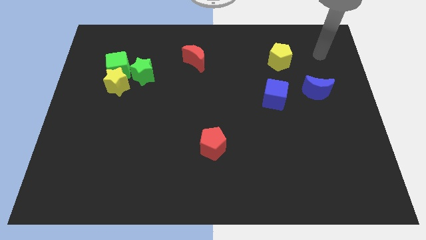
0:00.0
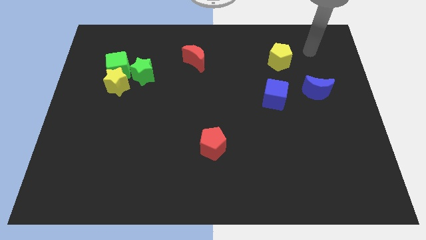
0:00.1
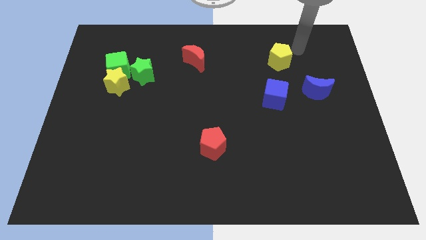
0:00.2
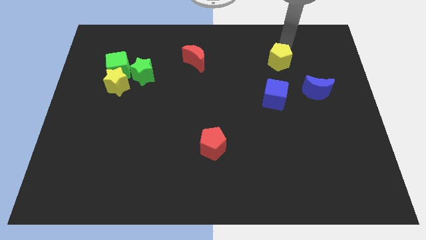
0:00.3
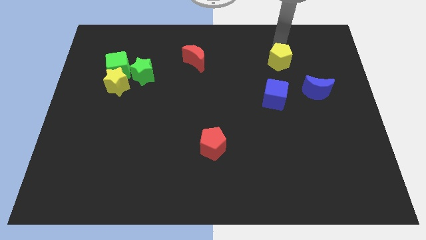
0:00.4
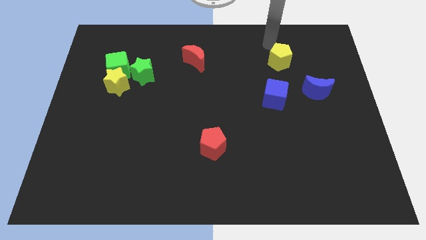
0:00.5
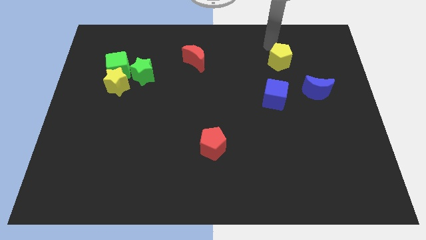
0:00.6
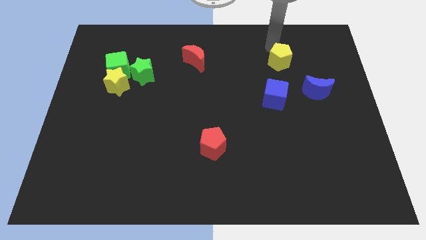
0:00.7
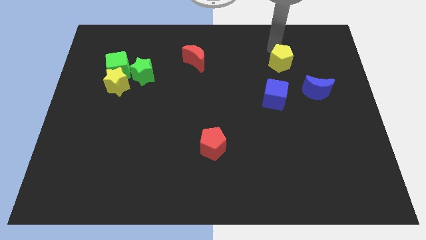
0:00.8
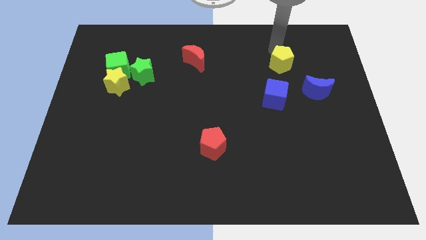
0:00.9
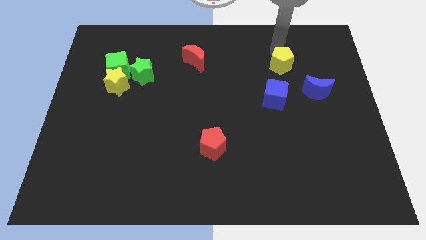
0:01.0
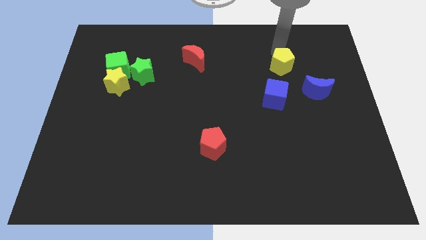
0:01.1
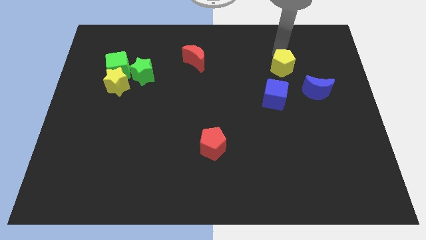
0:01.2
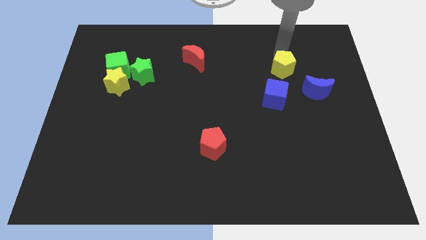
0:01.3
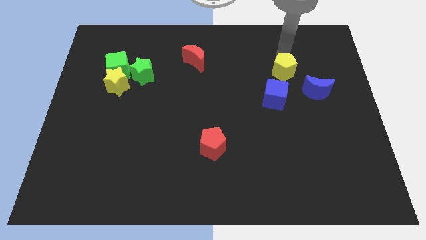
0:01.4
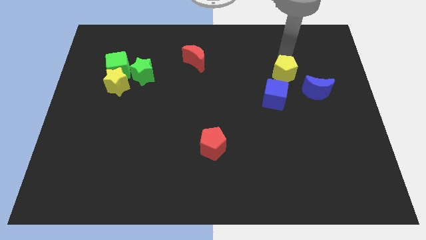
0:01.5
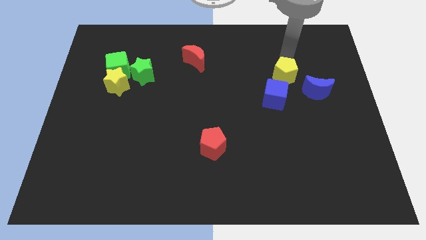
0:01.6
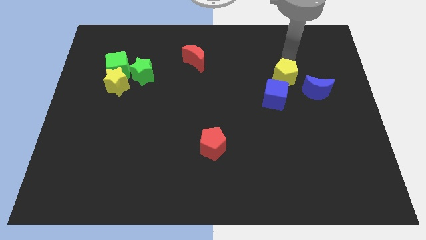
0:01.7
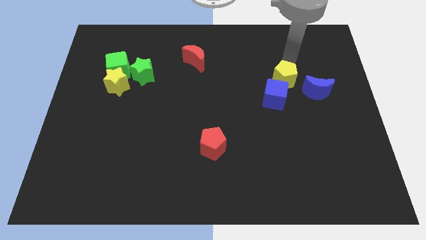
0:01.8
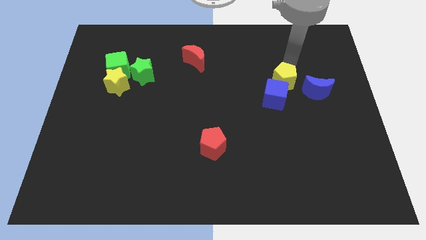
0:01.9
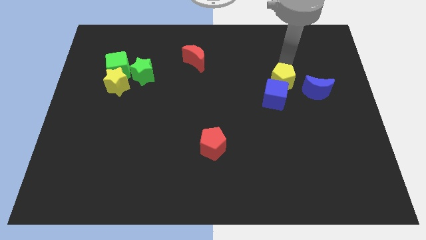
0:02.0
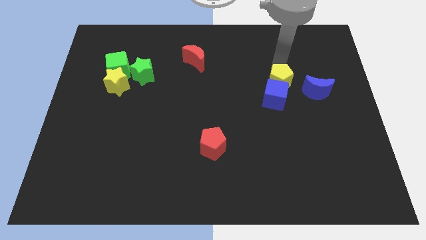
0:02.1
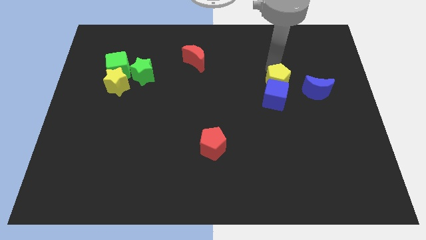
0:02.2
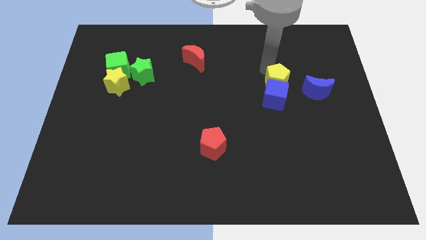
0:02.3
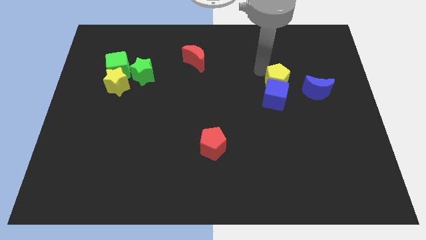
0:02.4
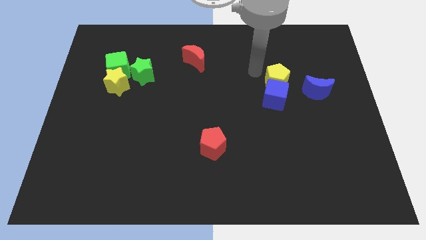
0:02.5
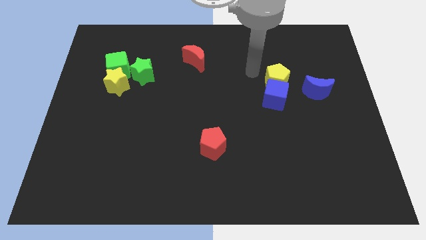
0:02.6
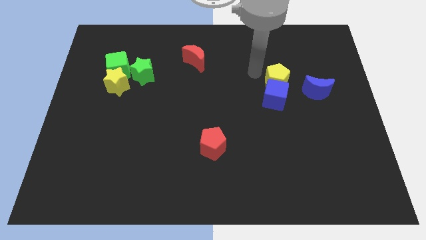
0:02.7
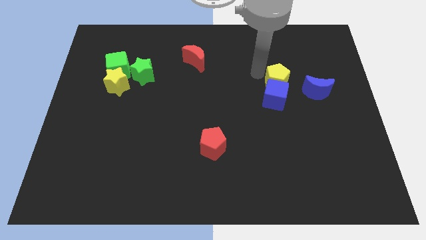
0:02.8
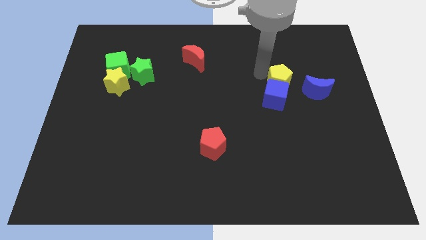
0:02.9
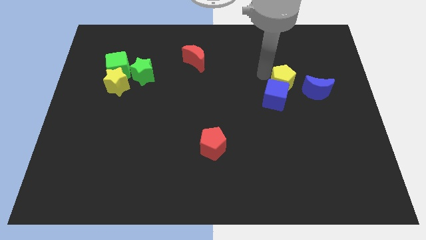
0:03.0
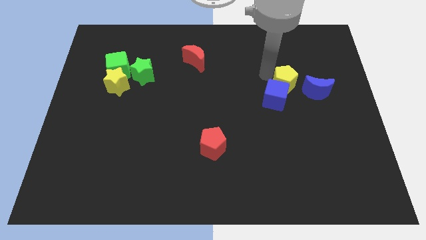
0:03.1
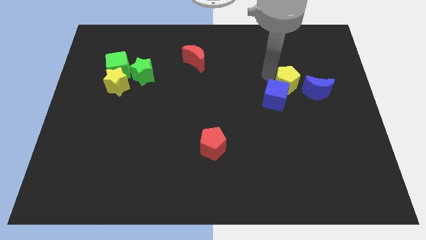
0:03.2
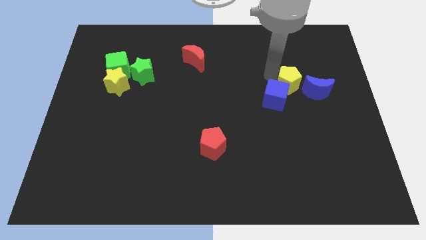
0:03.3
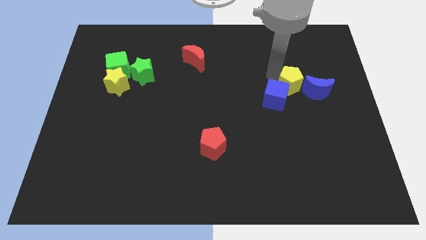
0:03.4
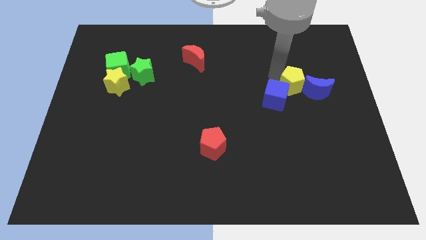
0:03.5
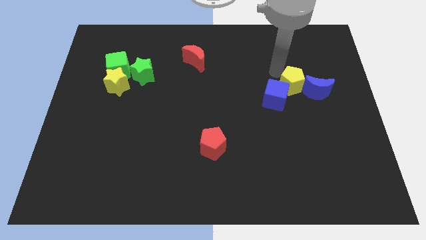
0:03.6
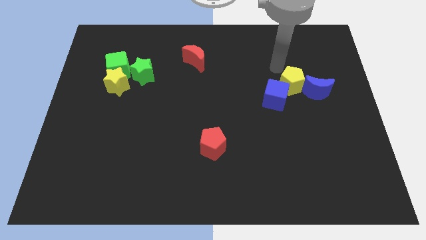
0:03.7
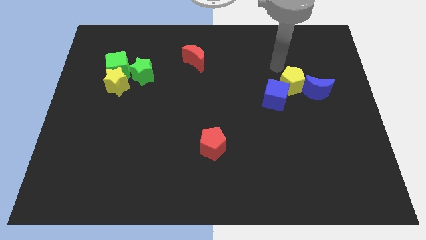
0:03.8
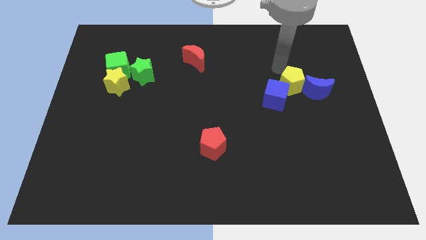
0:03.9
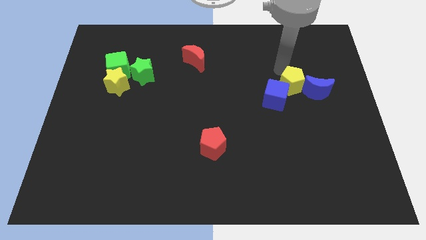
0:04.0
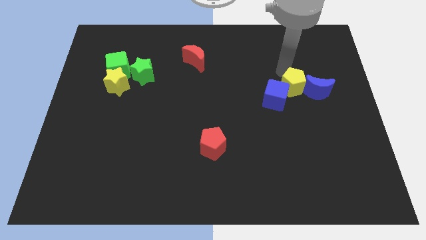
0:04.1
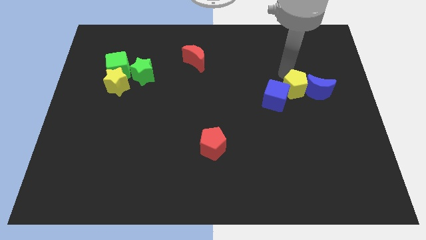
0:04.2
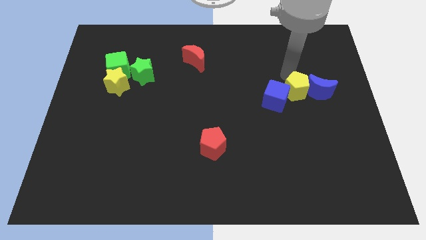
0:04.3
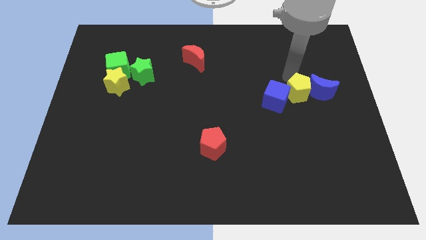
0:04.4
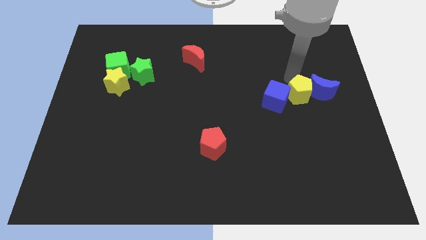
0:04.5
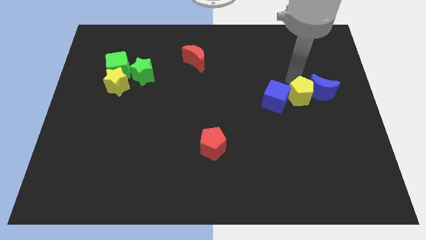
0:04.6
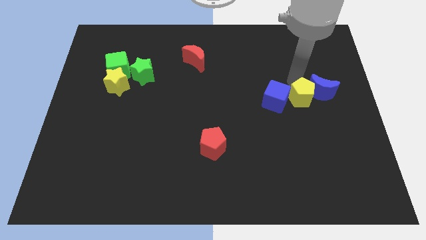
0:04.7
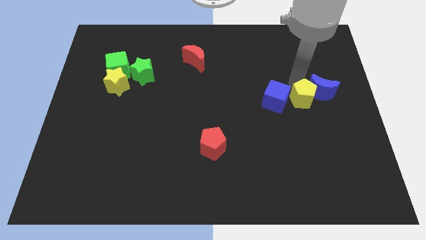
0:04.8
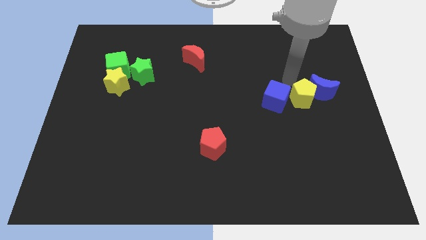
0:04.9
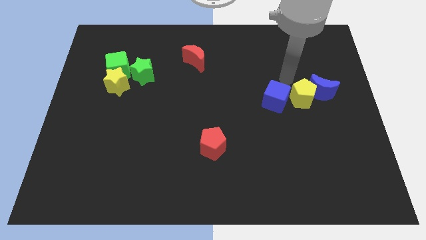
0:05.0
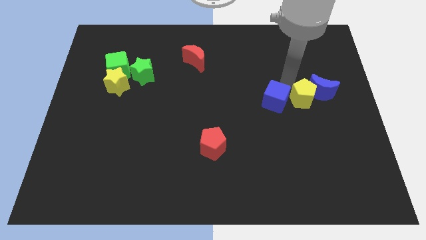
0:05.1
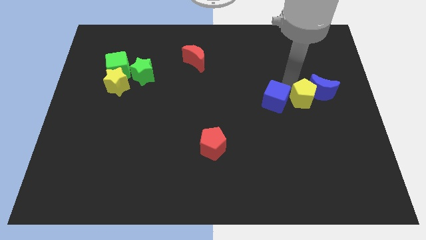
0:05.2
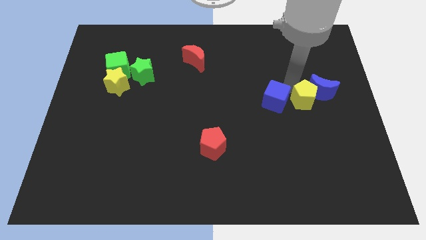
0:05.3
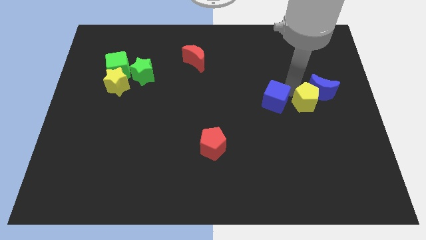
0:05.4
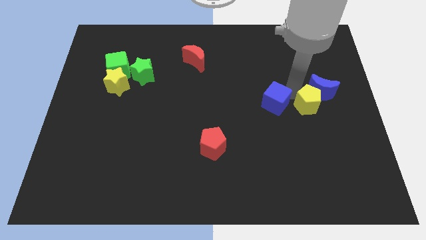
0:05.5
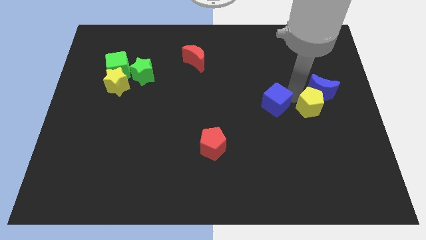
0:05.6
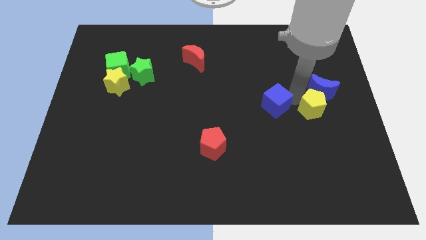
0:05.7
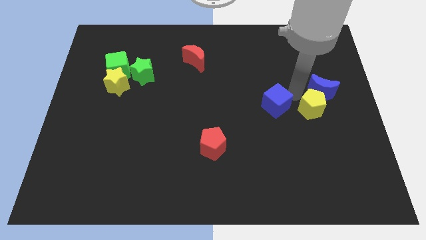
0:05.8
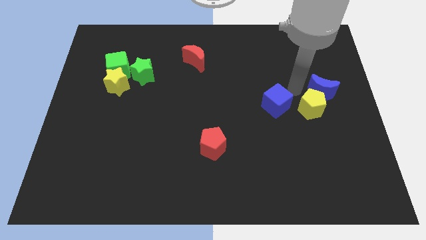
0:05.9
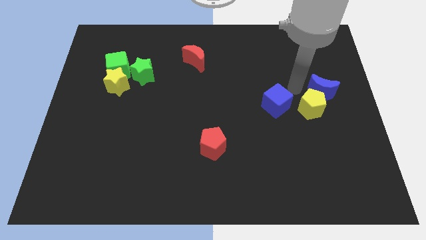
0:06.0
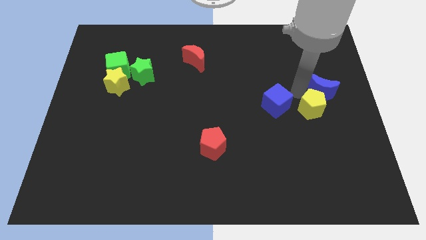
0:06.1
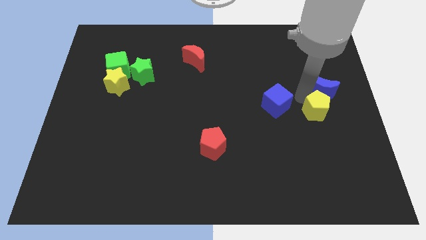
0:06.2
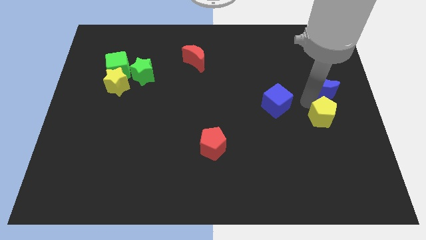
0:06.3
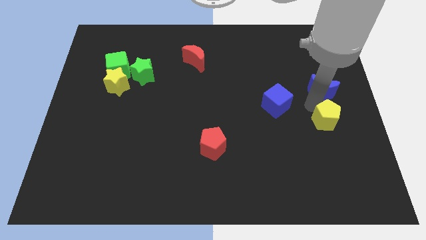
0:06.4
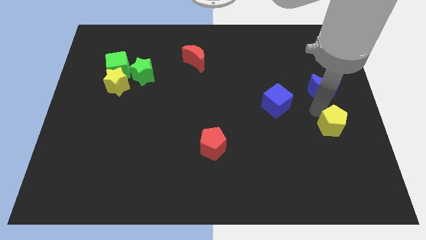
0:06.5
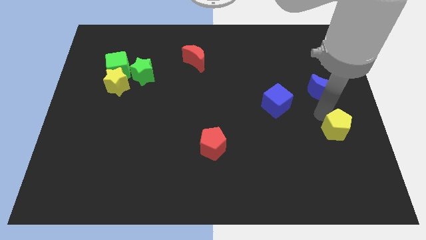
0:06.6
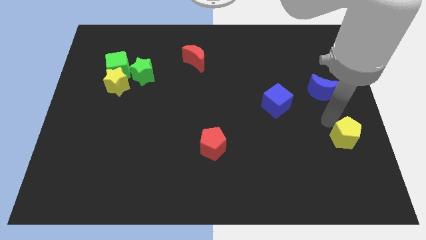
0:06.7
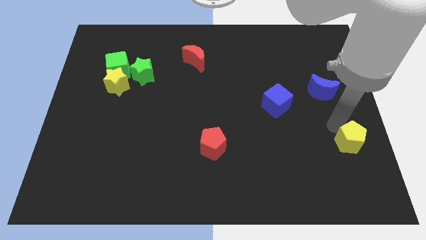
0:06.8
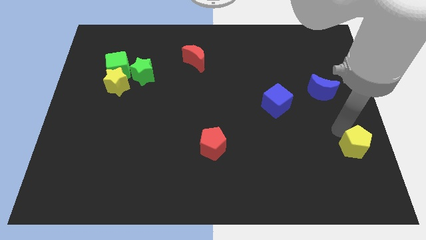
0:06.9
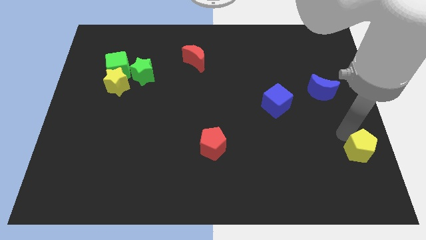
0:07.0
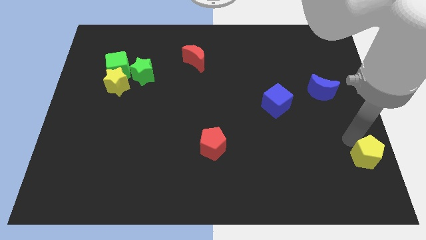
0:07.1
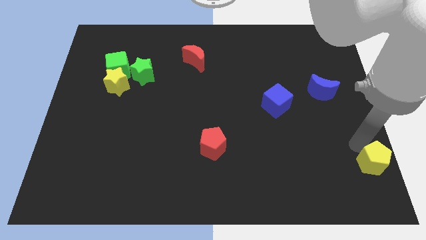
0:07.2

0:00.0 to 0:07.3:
move the yellow pentagon to the lower right corner

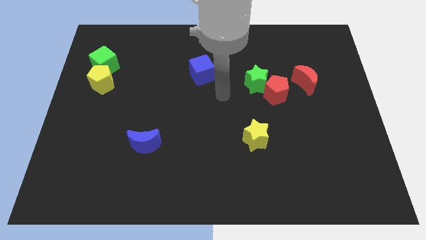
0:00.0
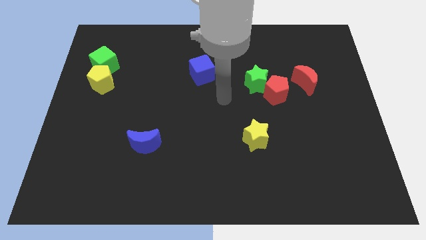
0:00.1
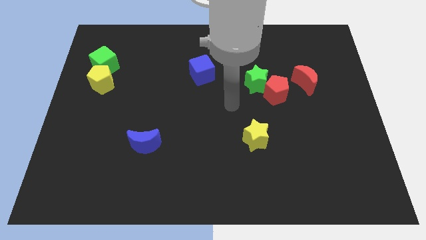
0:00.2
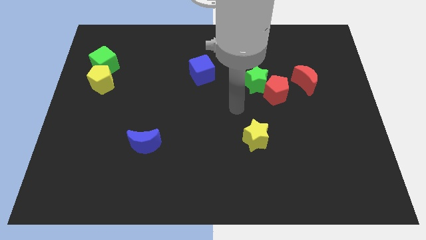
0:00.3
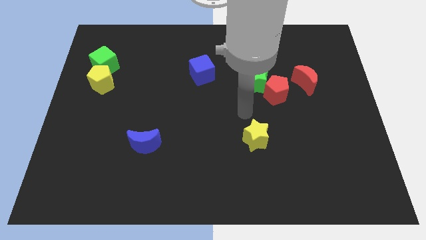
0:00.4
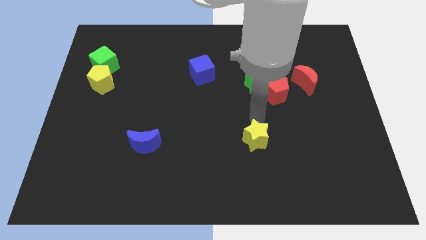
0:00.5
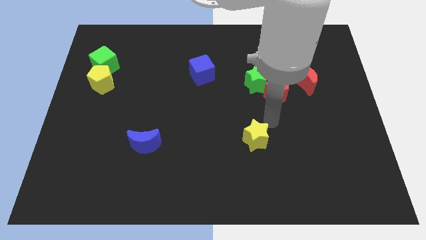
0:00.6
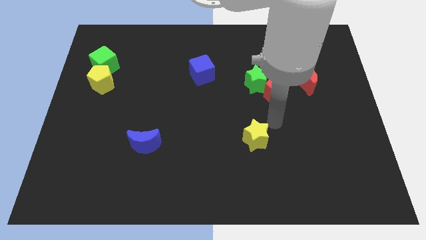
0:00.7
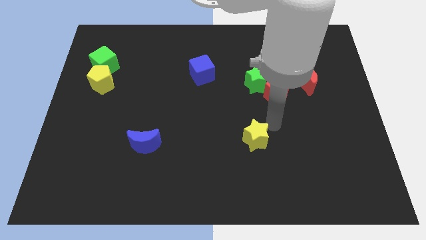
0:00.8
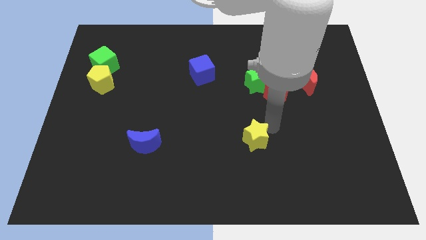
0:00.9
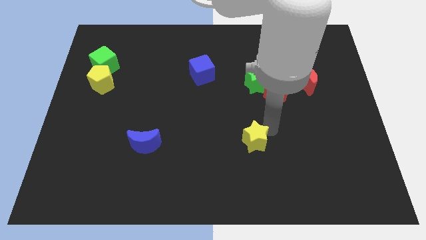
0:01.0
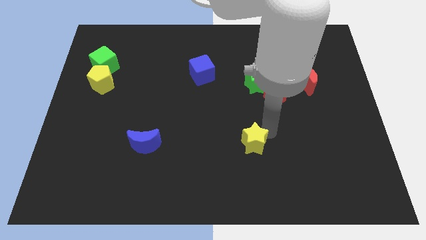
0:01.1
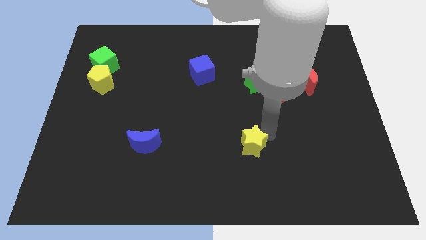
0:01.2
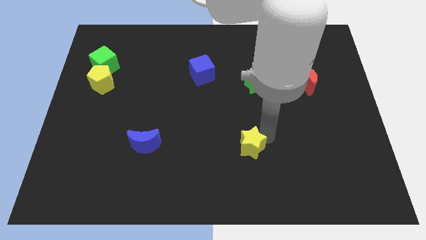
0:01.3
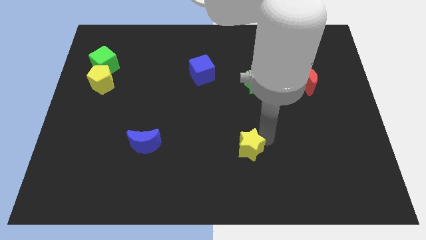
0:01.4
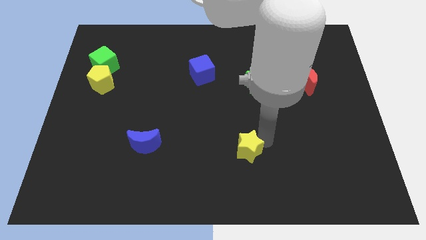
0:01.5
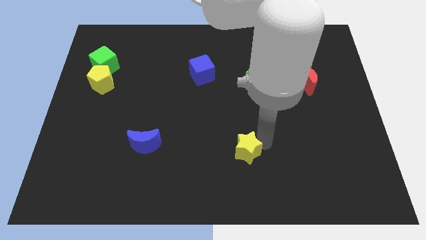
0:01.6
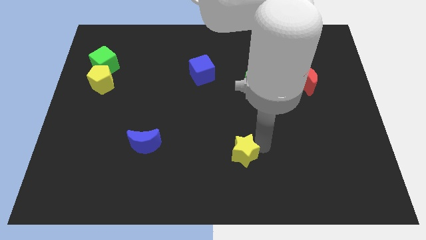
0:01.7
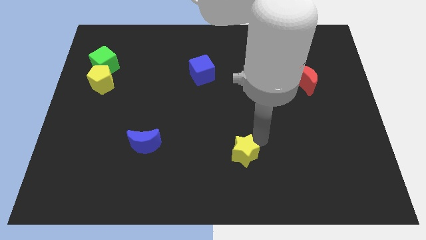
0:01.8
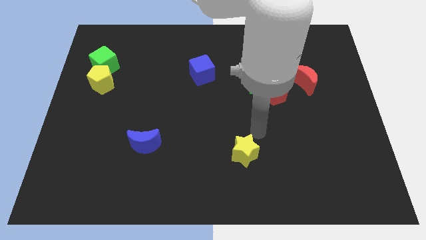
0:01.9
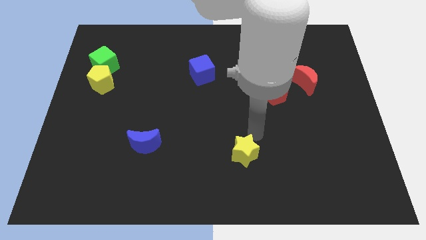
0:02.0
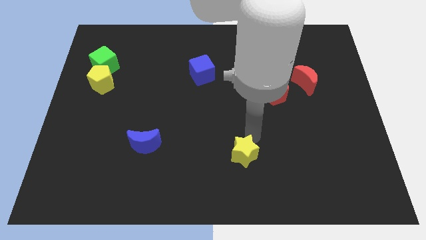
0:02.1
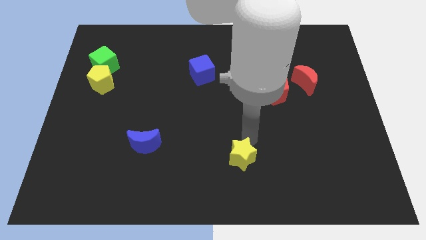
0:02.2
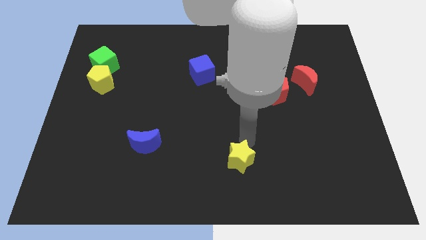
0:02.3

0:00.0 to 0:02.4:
push the yellow star to the bottom
